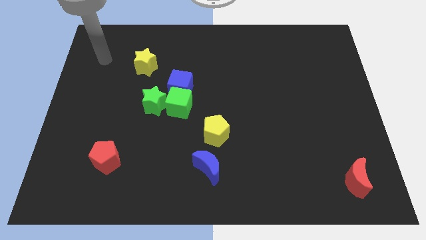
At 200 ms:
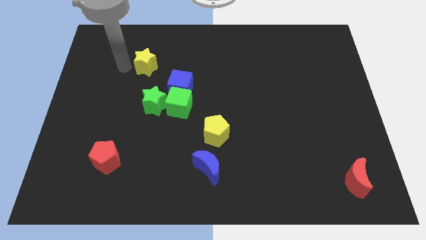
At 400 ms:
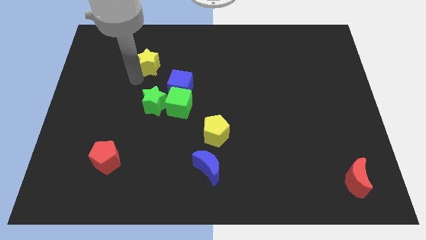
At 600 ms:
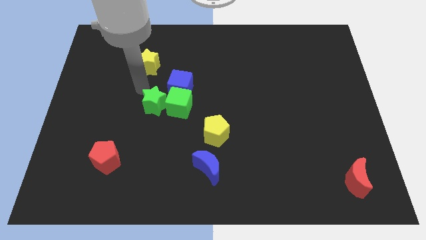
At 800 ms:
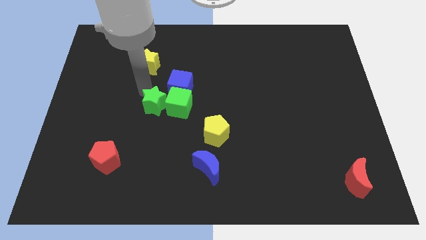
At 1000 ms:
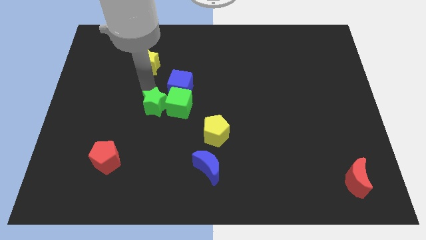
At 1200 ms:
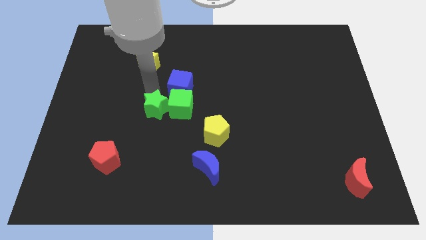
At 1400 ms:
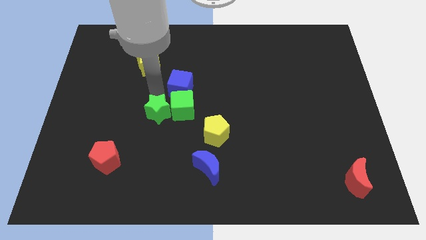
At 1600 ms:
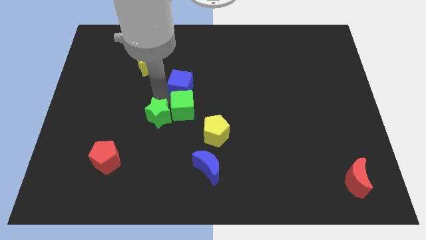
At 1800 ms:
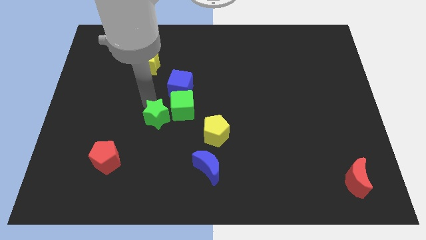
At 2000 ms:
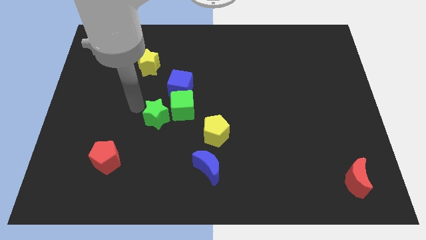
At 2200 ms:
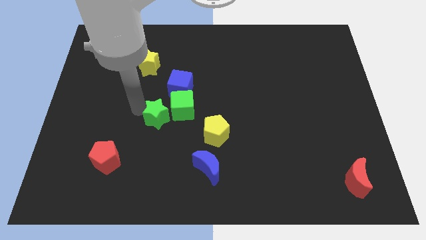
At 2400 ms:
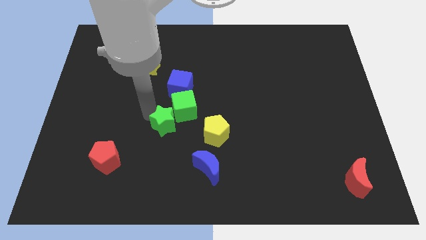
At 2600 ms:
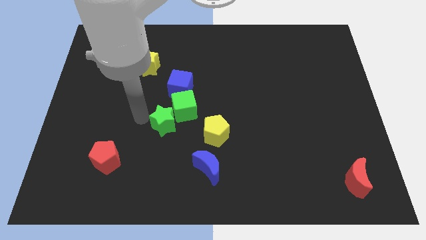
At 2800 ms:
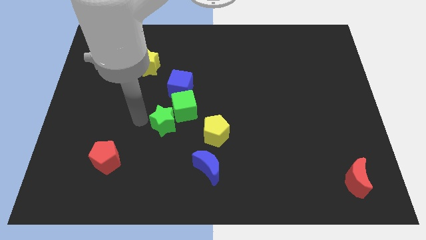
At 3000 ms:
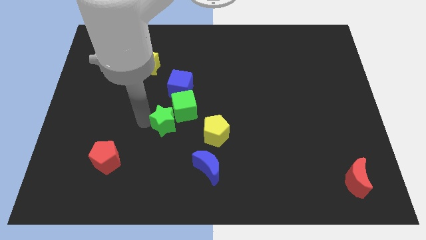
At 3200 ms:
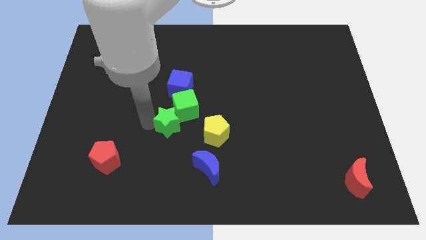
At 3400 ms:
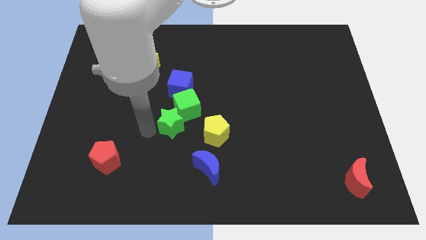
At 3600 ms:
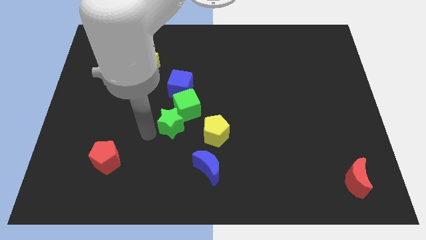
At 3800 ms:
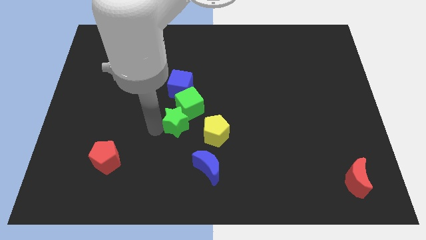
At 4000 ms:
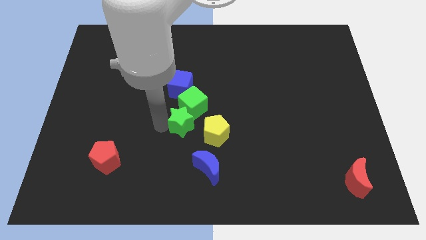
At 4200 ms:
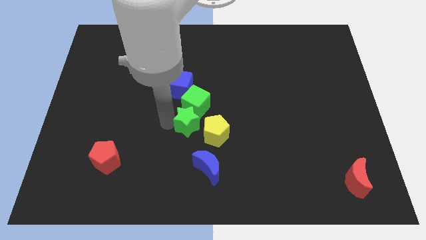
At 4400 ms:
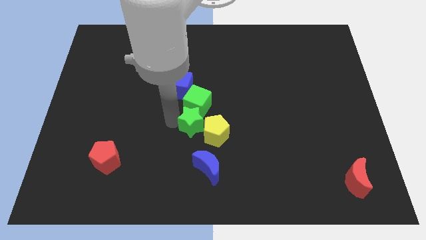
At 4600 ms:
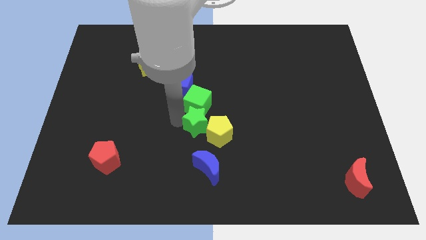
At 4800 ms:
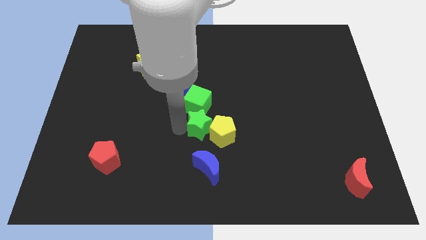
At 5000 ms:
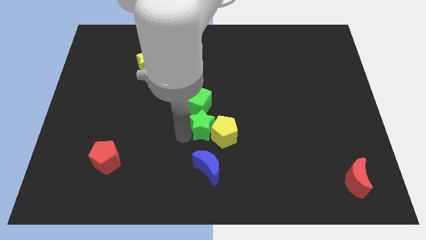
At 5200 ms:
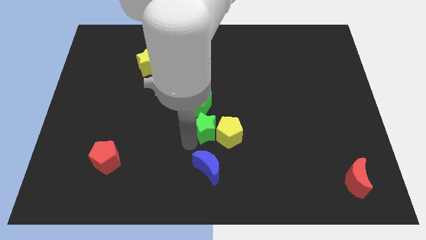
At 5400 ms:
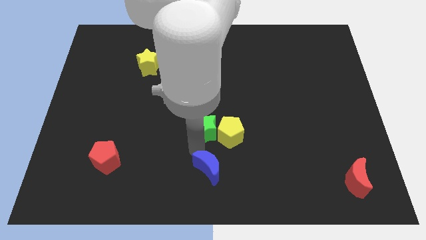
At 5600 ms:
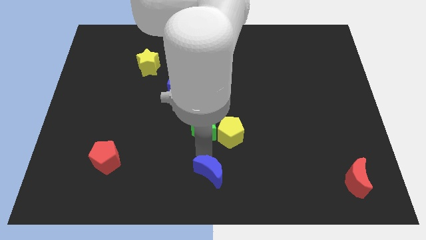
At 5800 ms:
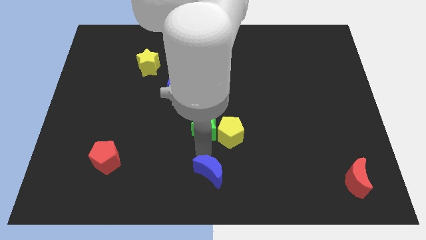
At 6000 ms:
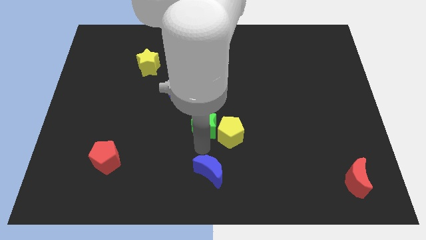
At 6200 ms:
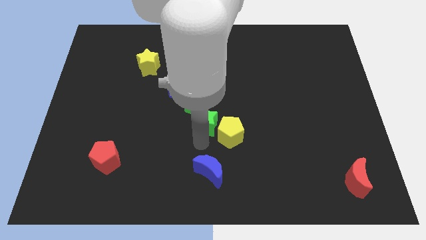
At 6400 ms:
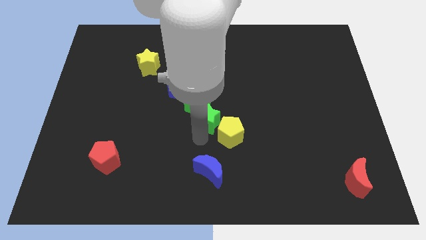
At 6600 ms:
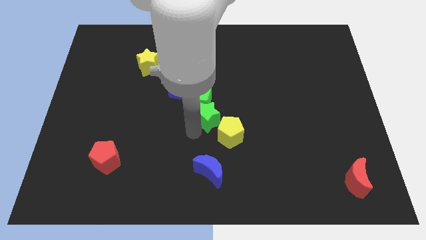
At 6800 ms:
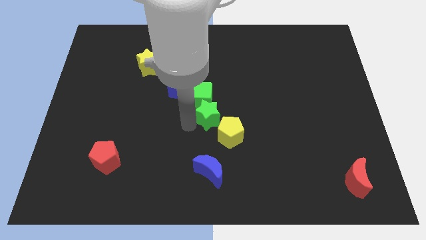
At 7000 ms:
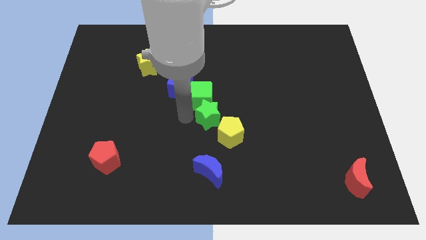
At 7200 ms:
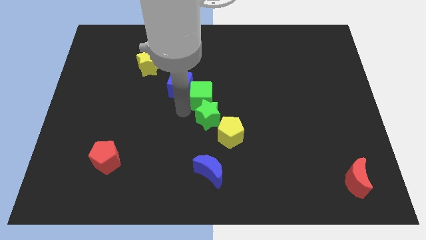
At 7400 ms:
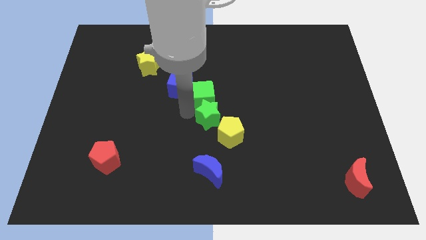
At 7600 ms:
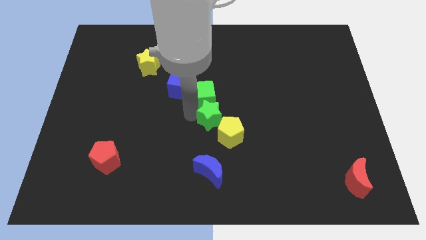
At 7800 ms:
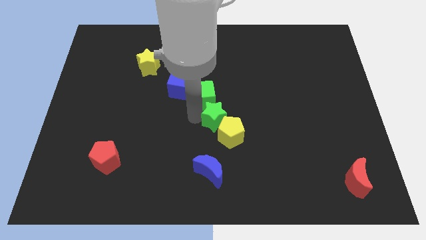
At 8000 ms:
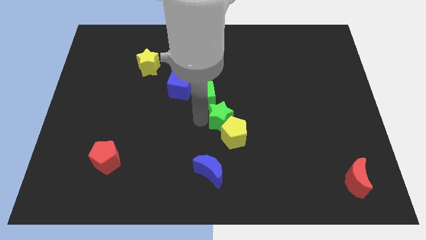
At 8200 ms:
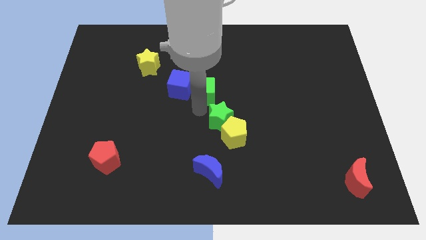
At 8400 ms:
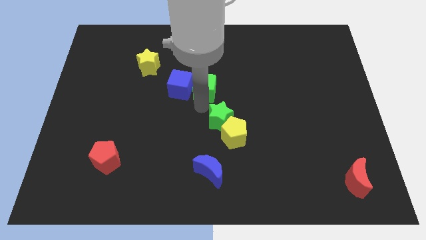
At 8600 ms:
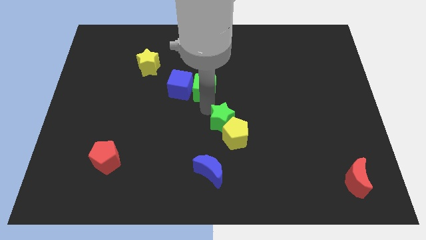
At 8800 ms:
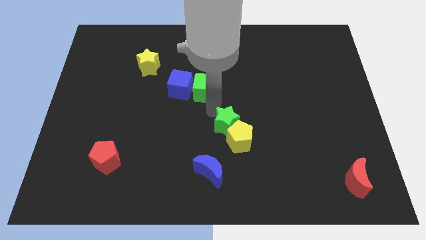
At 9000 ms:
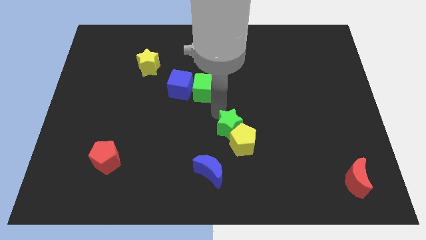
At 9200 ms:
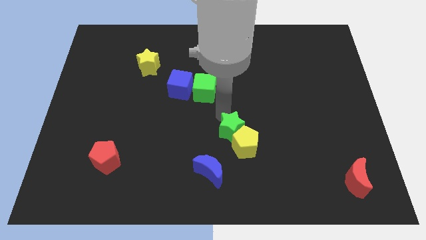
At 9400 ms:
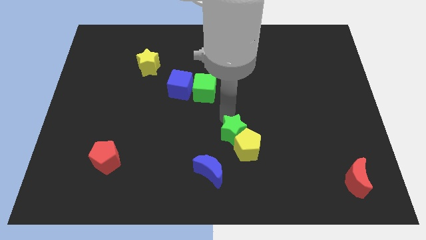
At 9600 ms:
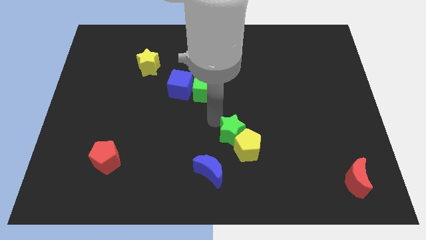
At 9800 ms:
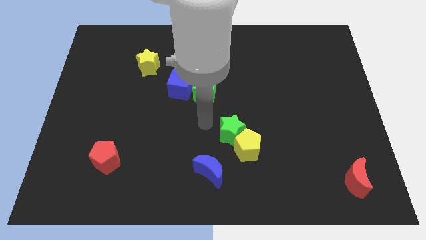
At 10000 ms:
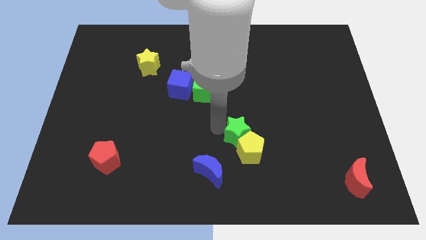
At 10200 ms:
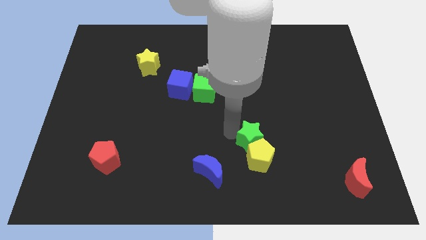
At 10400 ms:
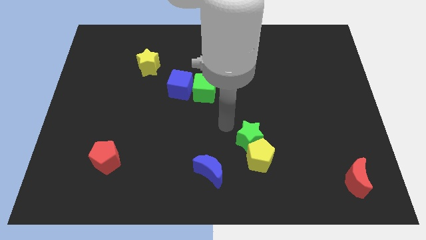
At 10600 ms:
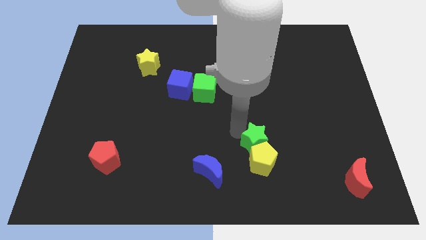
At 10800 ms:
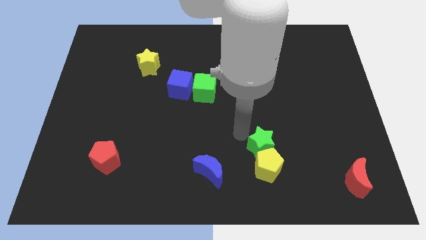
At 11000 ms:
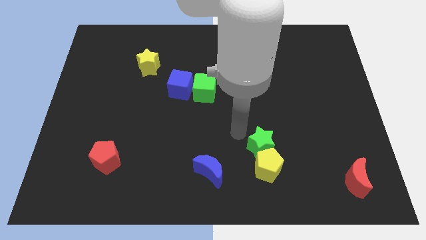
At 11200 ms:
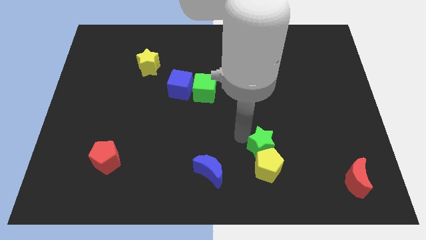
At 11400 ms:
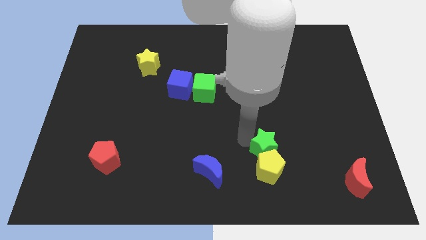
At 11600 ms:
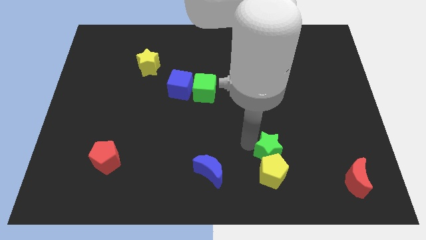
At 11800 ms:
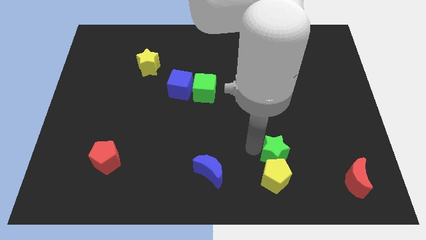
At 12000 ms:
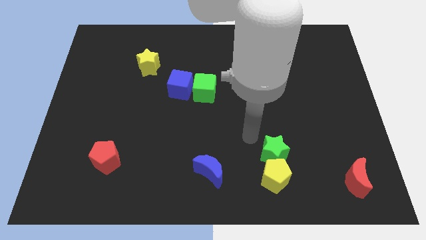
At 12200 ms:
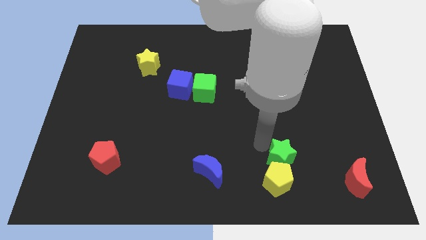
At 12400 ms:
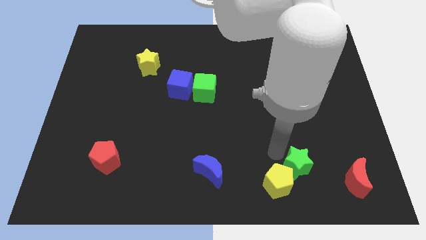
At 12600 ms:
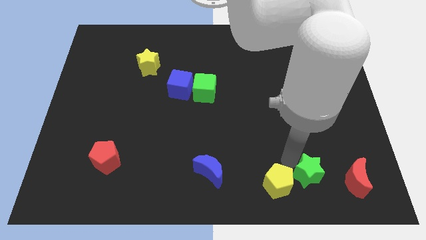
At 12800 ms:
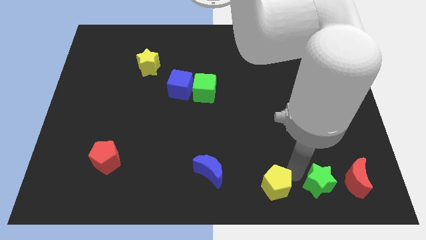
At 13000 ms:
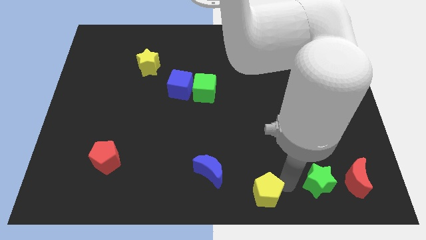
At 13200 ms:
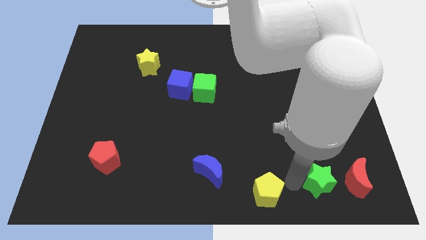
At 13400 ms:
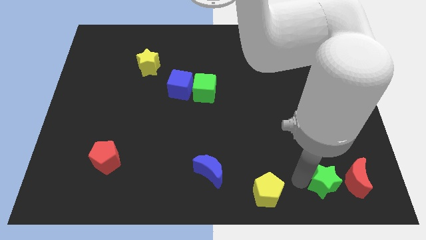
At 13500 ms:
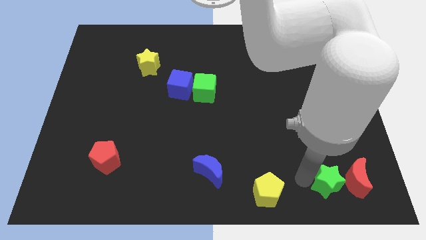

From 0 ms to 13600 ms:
put the green star next to the red moon
